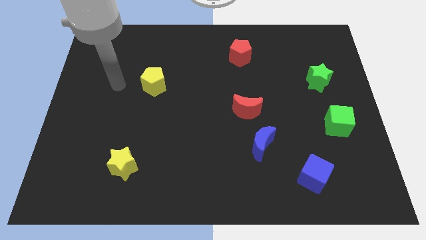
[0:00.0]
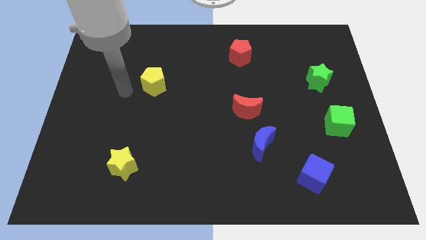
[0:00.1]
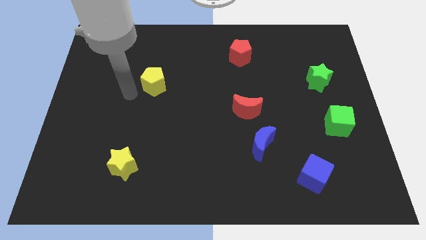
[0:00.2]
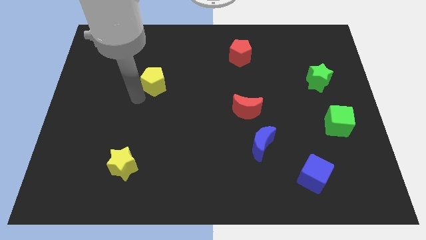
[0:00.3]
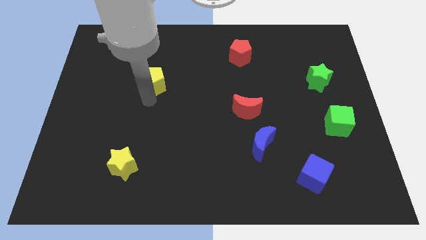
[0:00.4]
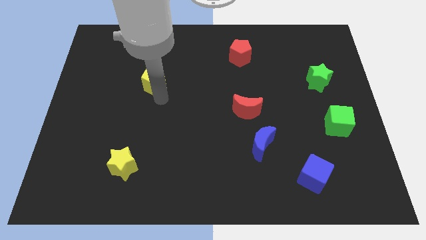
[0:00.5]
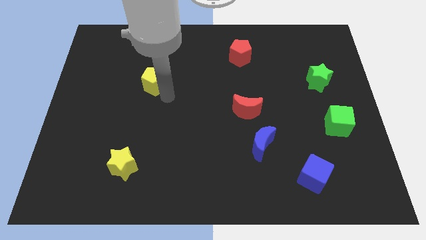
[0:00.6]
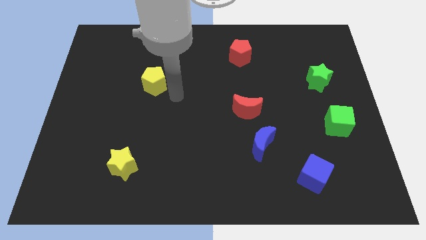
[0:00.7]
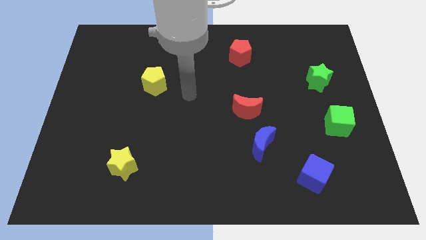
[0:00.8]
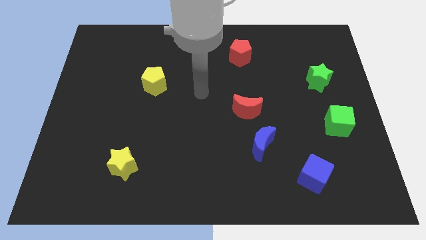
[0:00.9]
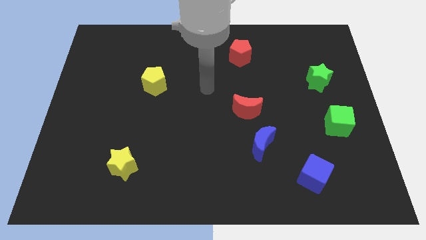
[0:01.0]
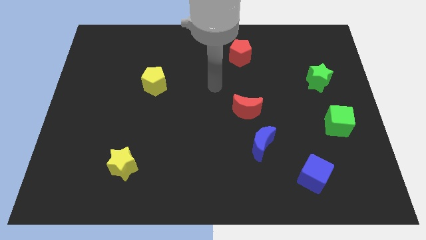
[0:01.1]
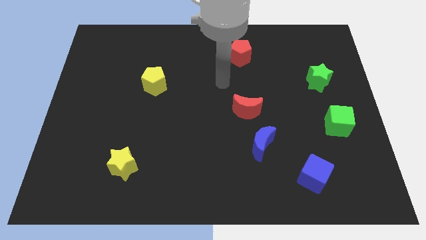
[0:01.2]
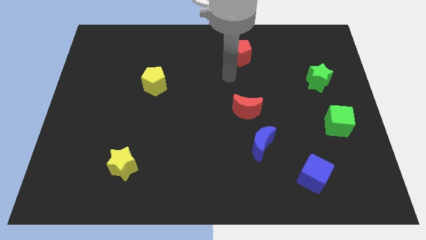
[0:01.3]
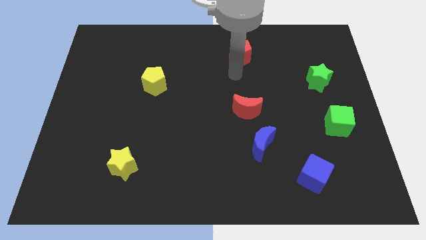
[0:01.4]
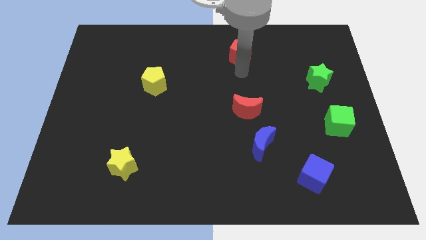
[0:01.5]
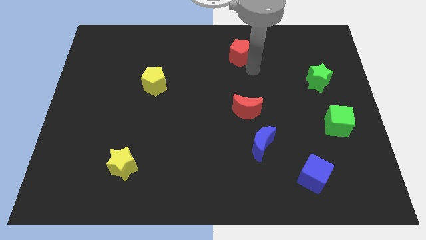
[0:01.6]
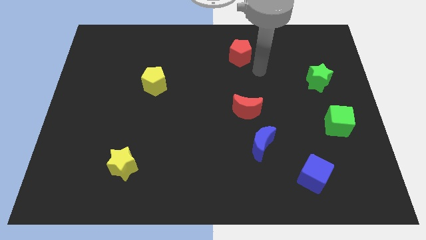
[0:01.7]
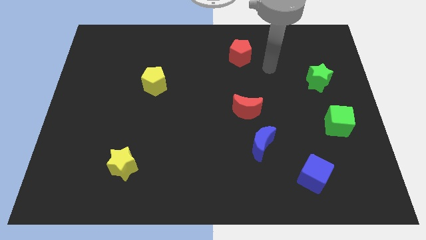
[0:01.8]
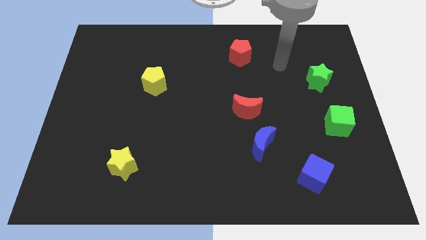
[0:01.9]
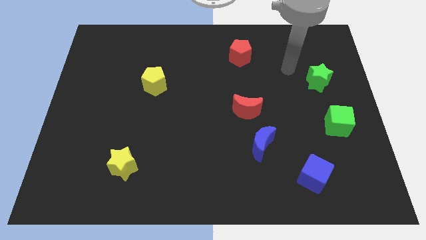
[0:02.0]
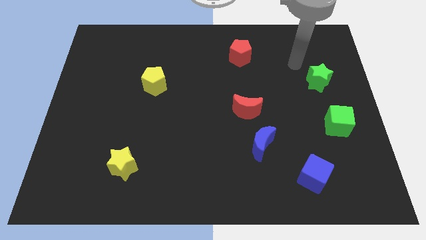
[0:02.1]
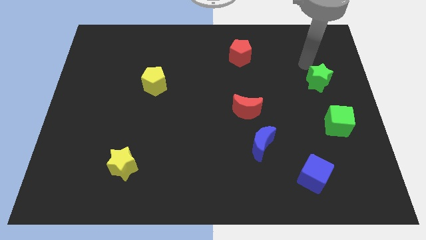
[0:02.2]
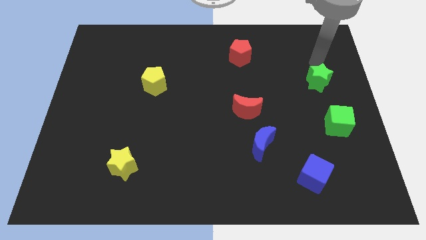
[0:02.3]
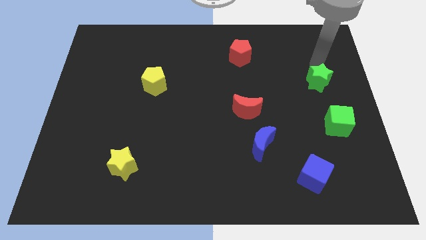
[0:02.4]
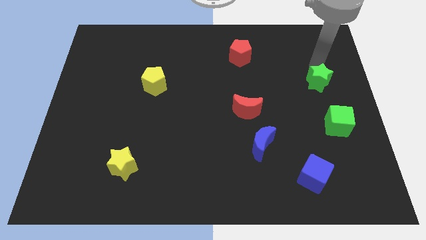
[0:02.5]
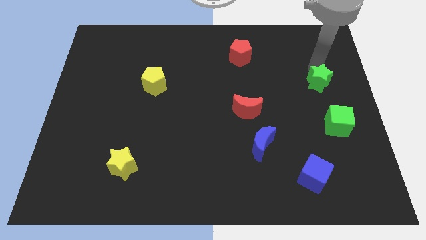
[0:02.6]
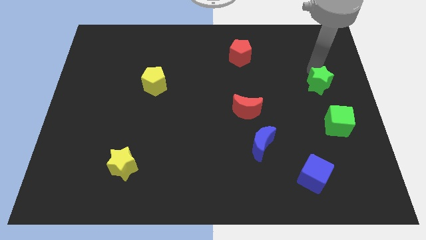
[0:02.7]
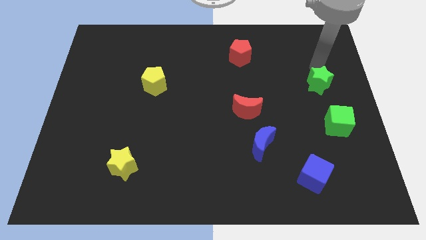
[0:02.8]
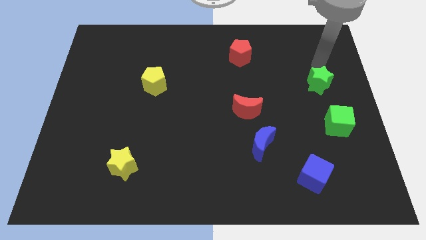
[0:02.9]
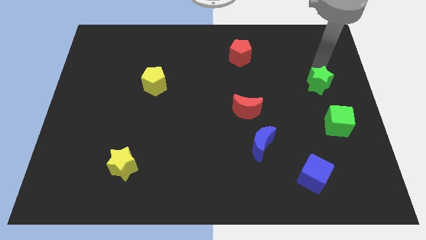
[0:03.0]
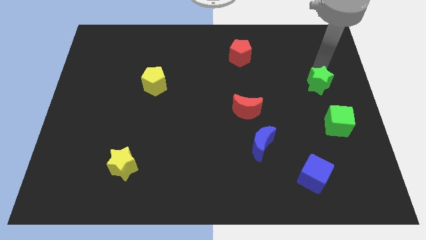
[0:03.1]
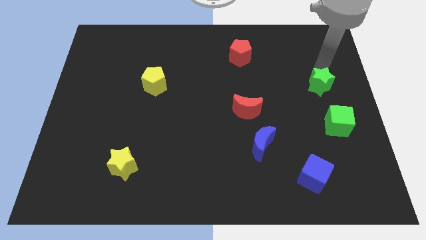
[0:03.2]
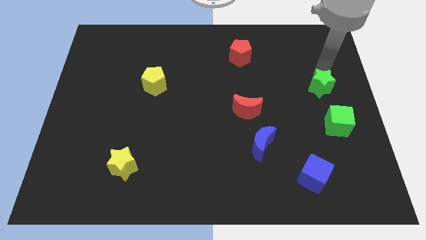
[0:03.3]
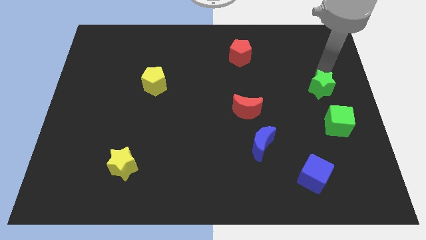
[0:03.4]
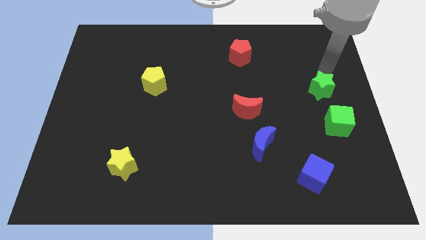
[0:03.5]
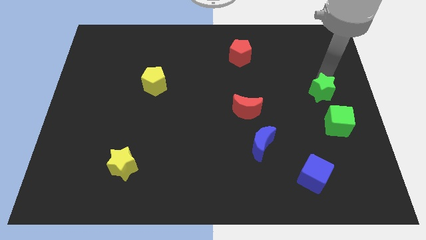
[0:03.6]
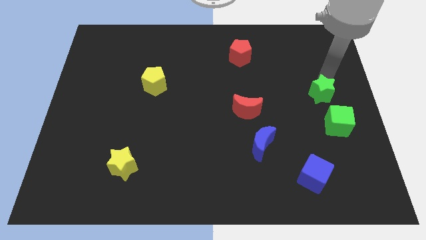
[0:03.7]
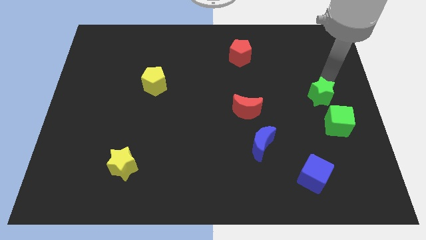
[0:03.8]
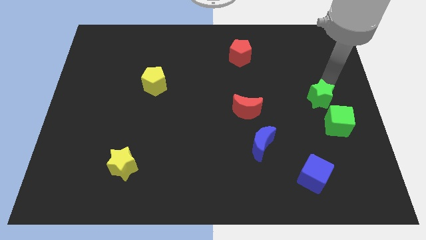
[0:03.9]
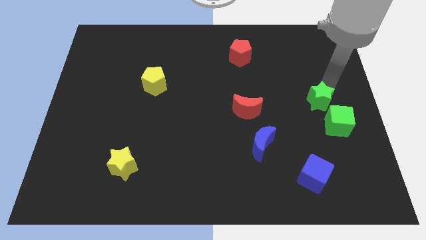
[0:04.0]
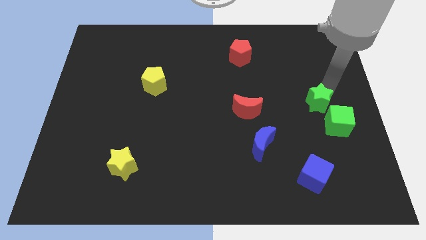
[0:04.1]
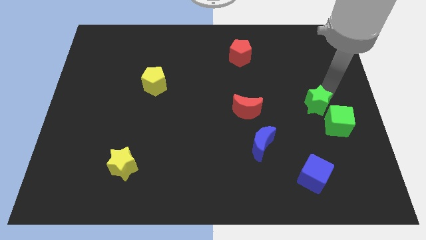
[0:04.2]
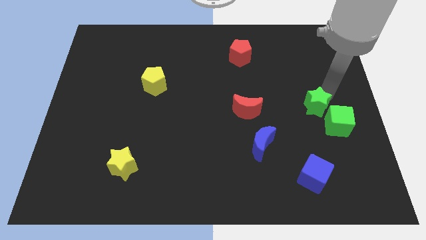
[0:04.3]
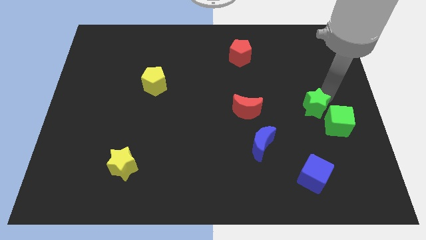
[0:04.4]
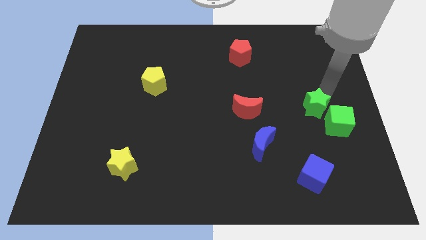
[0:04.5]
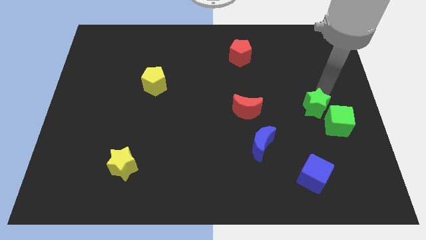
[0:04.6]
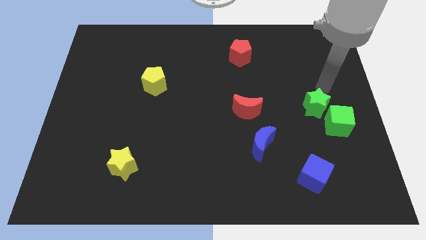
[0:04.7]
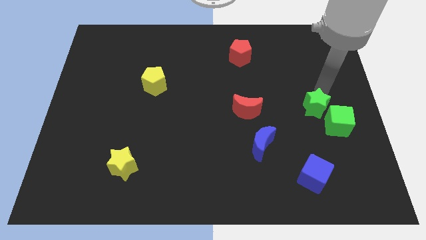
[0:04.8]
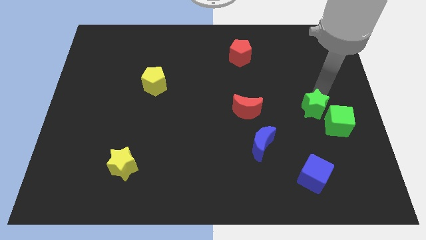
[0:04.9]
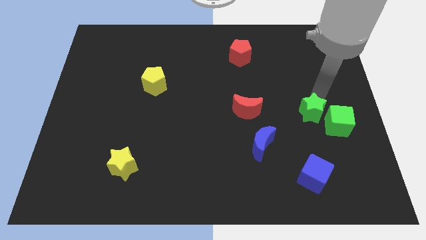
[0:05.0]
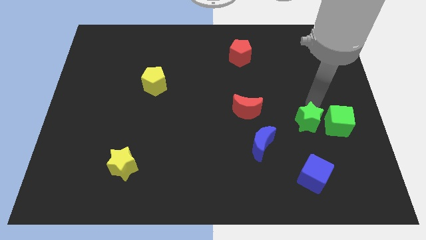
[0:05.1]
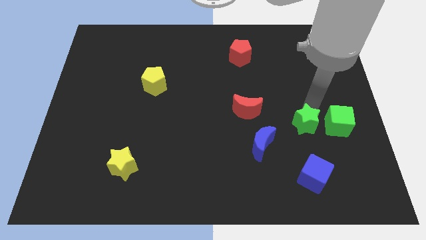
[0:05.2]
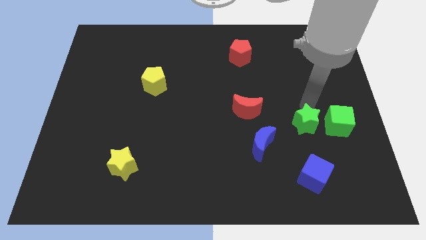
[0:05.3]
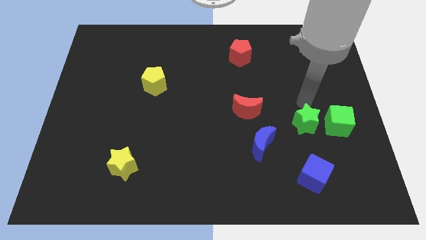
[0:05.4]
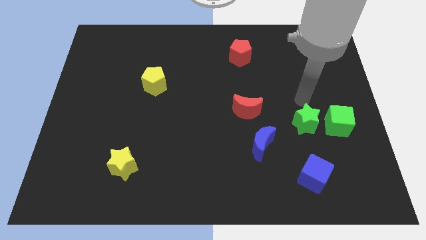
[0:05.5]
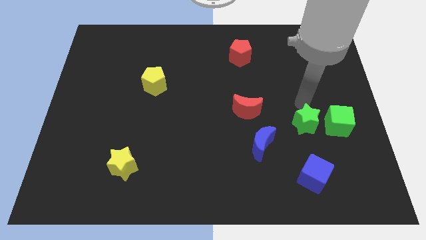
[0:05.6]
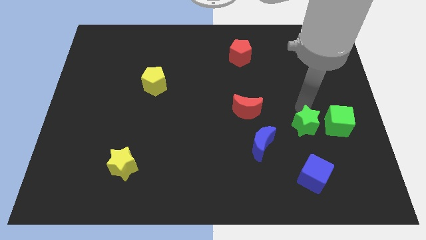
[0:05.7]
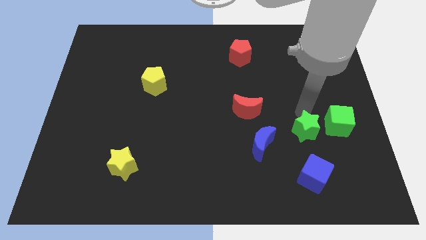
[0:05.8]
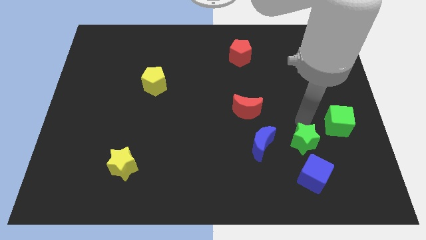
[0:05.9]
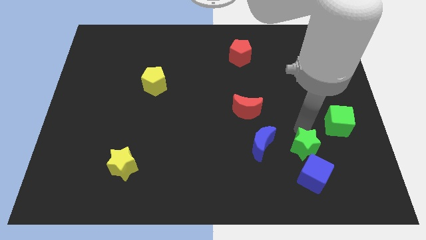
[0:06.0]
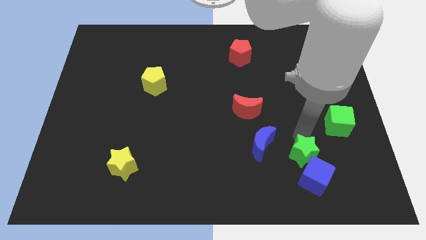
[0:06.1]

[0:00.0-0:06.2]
move the green star to the blue cube

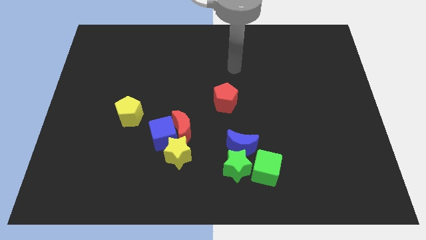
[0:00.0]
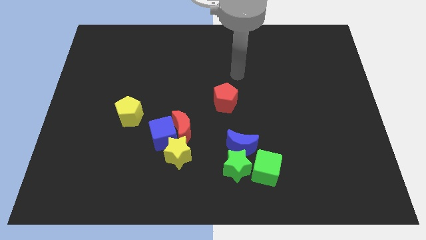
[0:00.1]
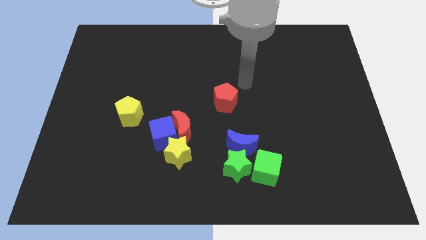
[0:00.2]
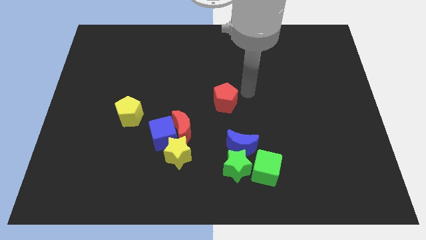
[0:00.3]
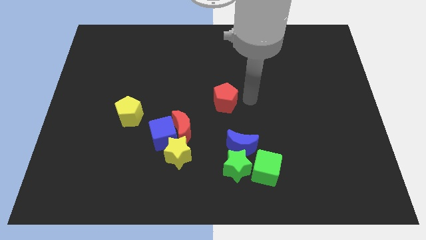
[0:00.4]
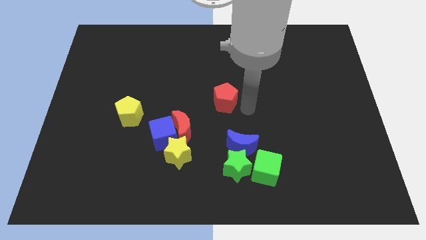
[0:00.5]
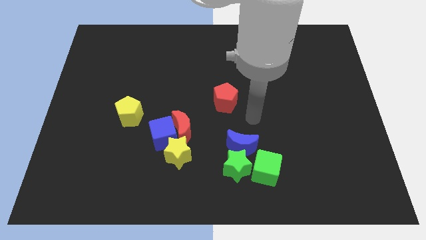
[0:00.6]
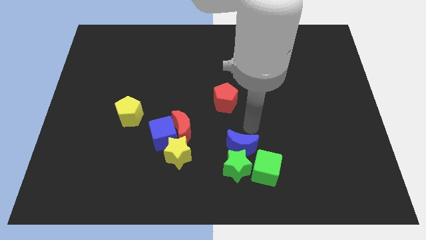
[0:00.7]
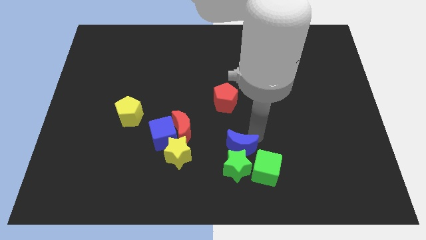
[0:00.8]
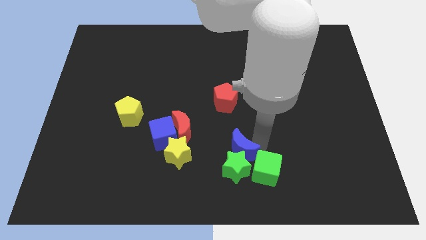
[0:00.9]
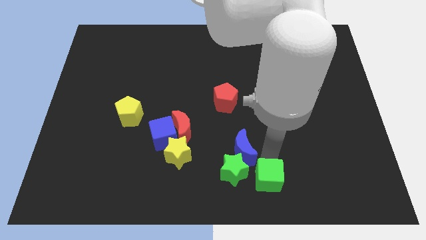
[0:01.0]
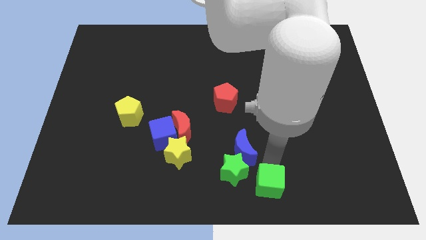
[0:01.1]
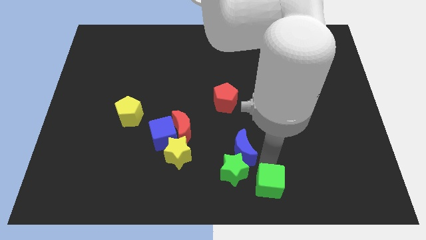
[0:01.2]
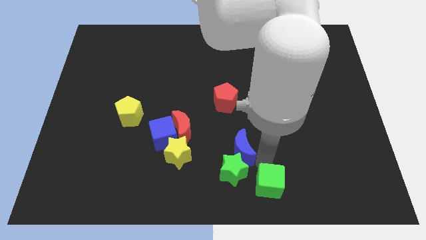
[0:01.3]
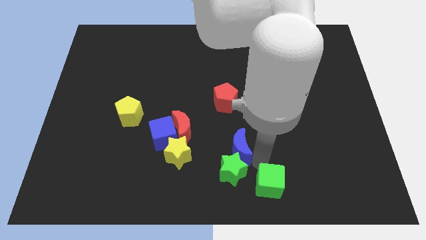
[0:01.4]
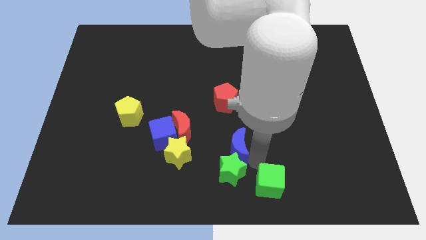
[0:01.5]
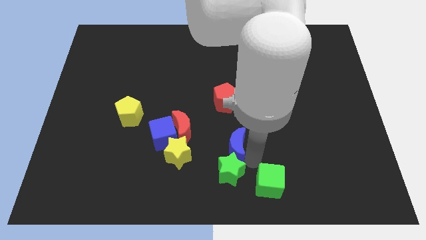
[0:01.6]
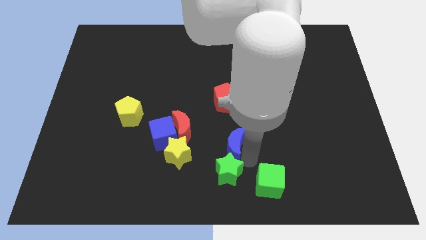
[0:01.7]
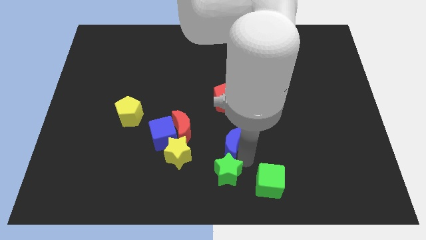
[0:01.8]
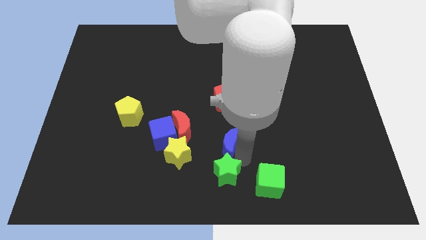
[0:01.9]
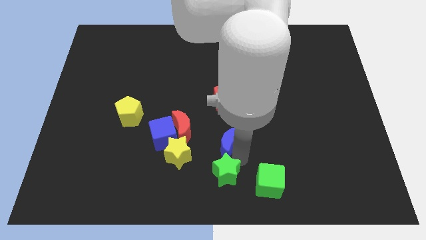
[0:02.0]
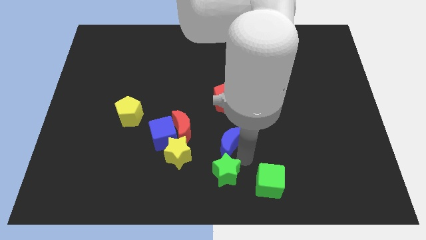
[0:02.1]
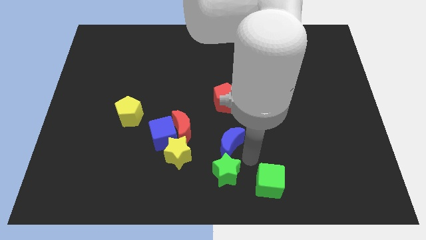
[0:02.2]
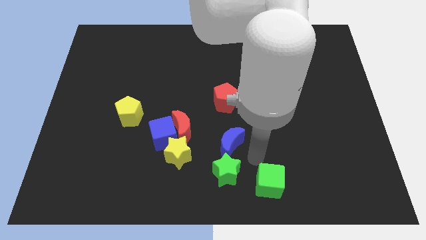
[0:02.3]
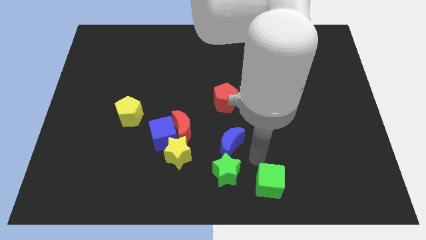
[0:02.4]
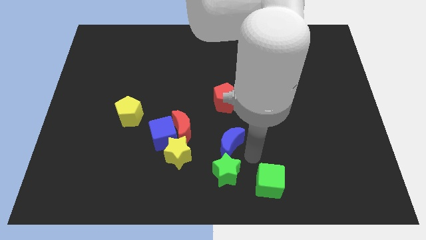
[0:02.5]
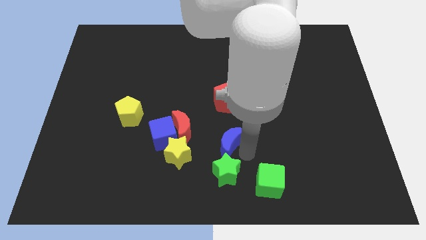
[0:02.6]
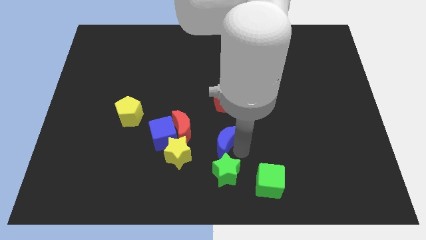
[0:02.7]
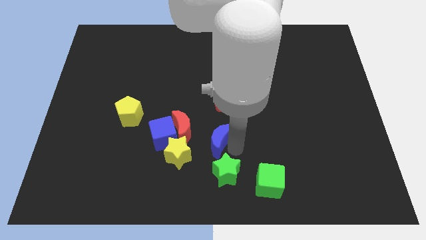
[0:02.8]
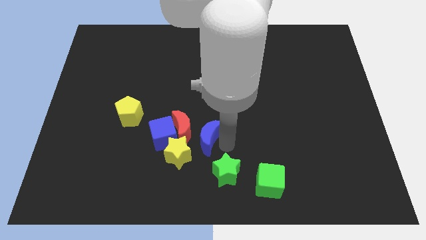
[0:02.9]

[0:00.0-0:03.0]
slide the blue moon close to the red moon
